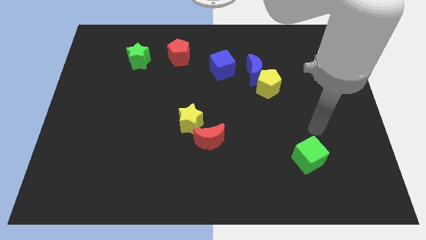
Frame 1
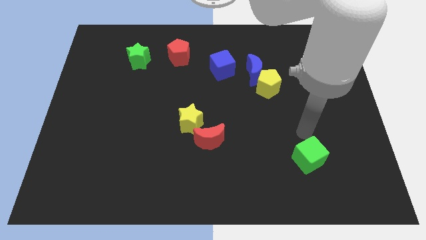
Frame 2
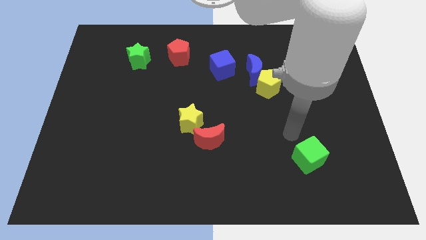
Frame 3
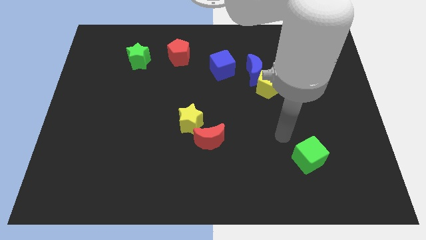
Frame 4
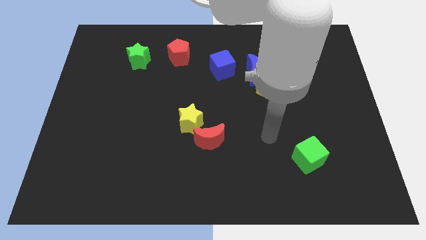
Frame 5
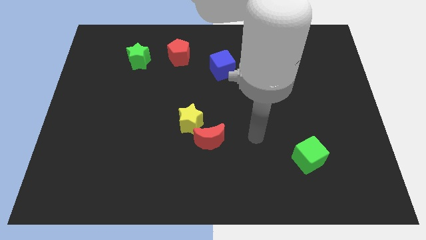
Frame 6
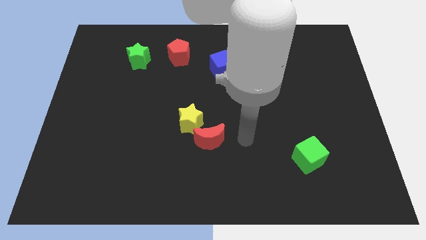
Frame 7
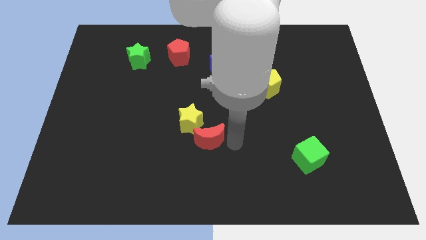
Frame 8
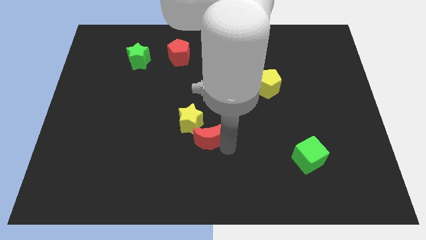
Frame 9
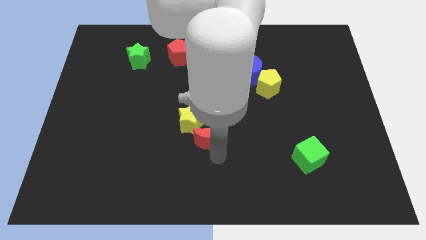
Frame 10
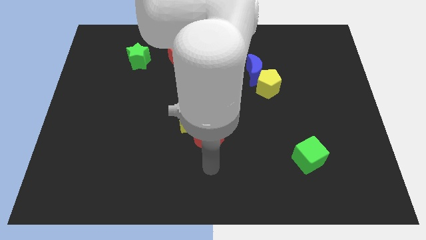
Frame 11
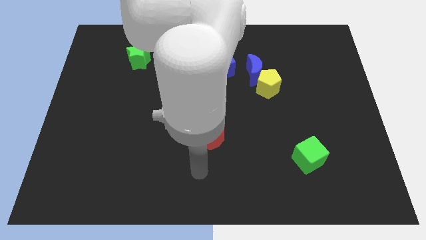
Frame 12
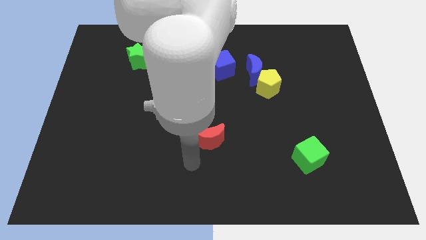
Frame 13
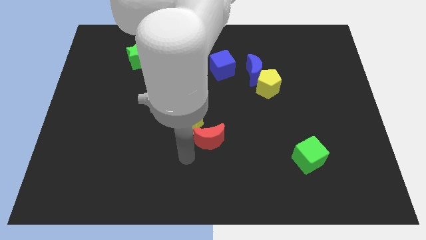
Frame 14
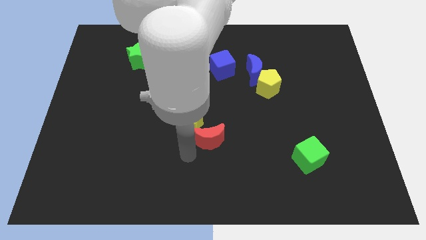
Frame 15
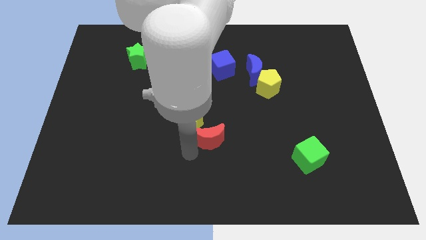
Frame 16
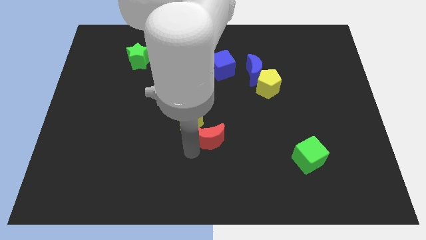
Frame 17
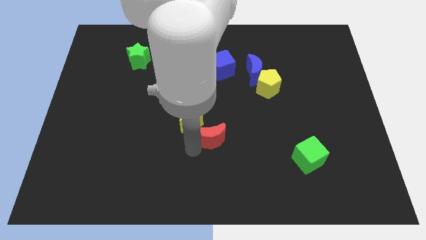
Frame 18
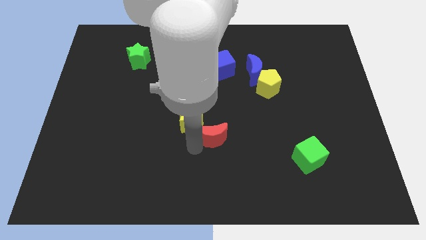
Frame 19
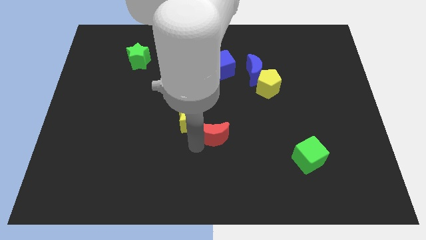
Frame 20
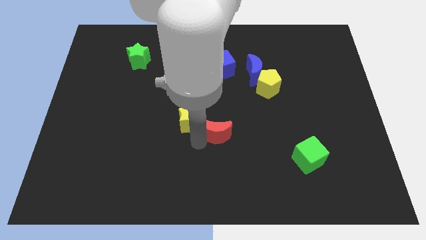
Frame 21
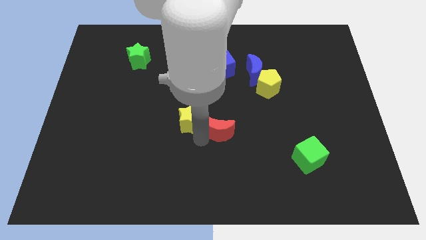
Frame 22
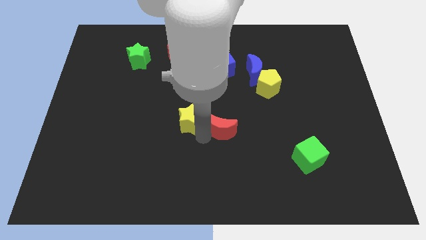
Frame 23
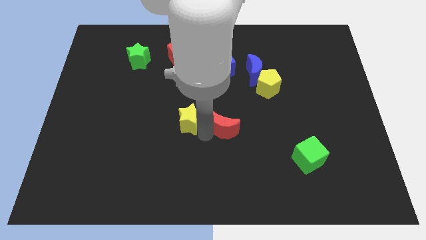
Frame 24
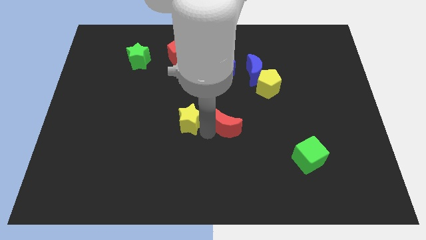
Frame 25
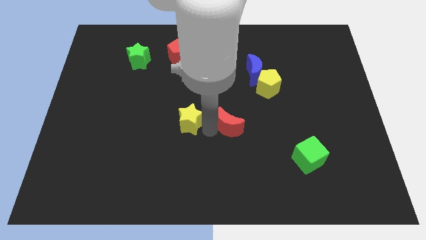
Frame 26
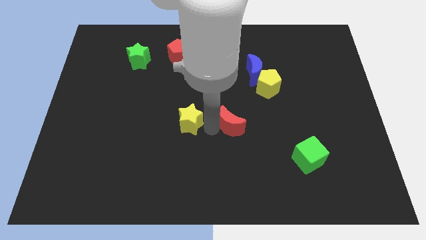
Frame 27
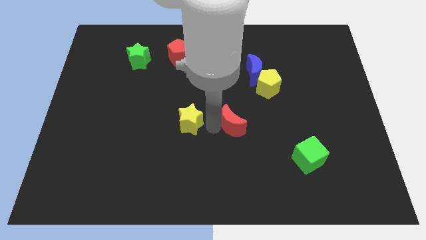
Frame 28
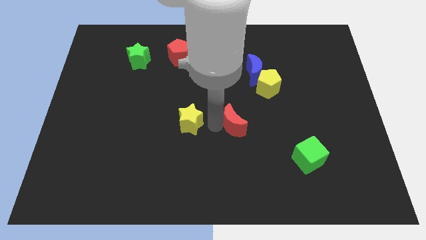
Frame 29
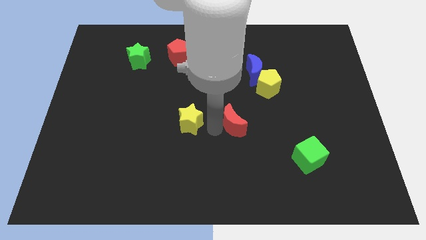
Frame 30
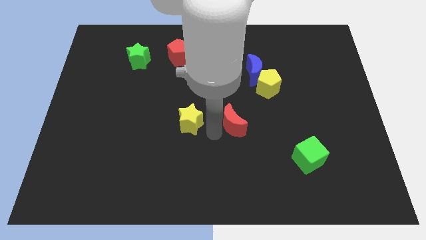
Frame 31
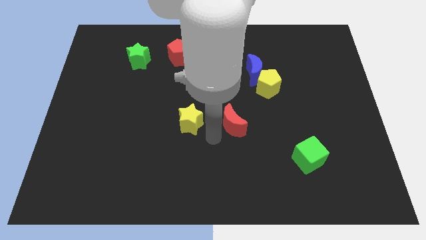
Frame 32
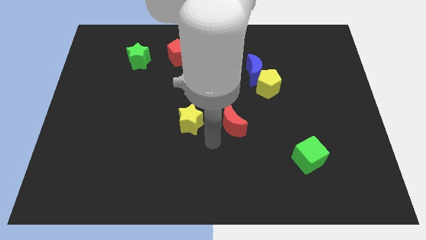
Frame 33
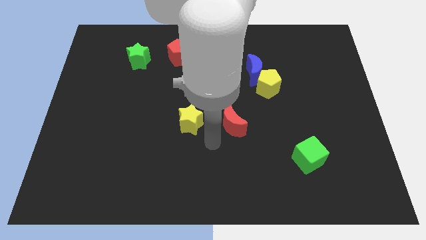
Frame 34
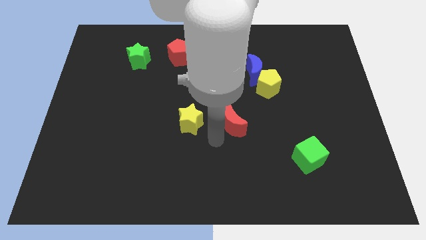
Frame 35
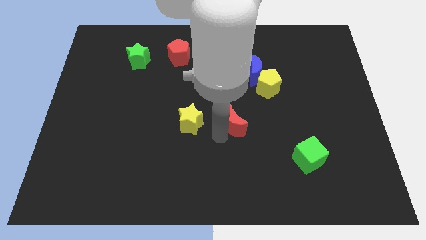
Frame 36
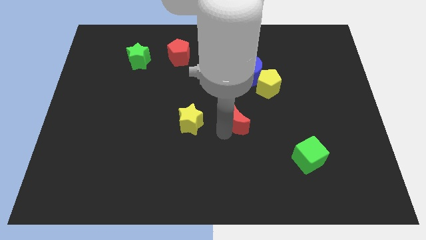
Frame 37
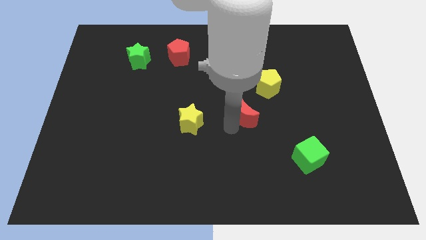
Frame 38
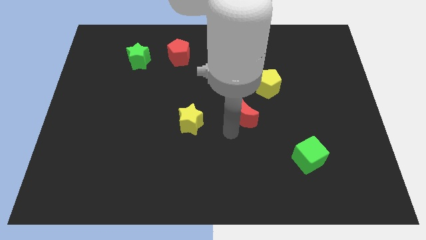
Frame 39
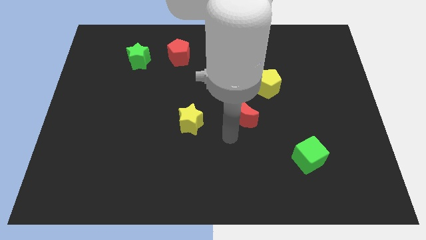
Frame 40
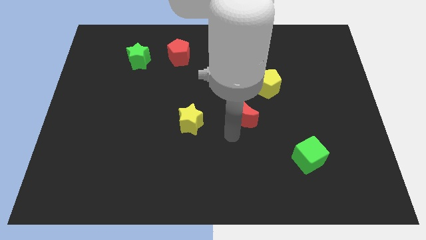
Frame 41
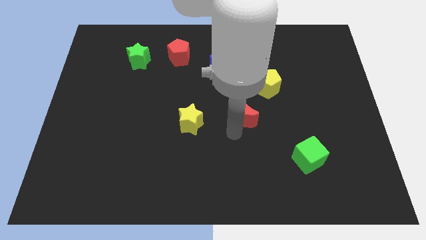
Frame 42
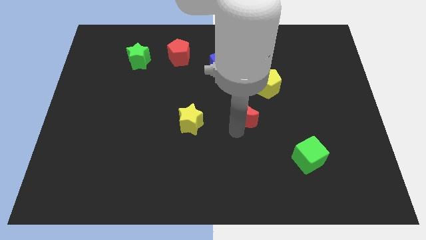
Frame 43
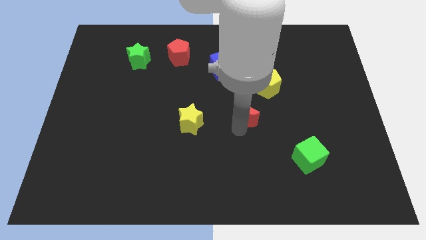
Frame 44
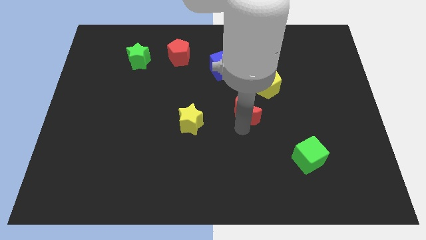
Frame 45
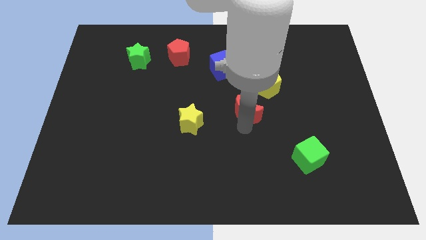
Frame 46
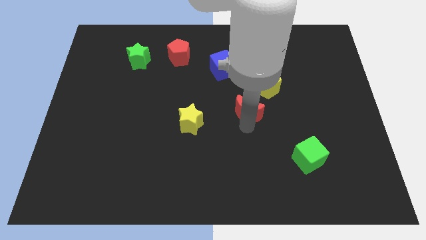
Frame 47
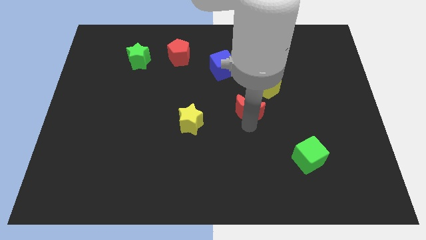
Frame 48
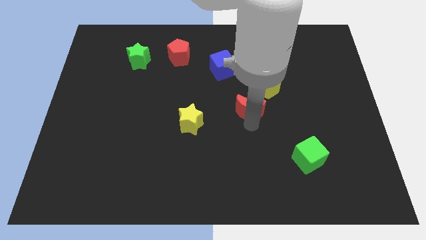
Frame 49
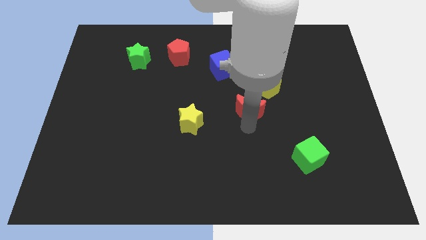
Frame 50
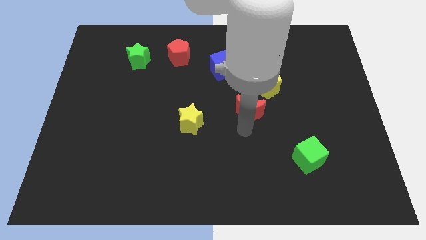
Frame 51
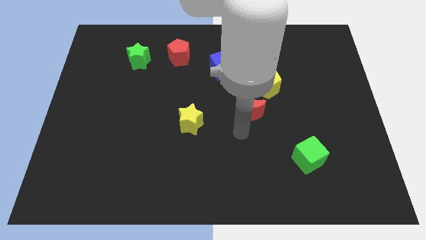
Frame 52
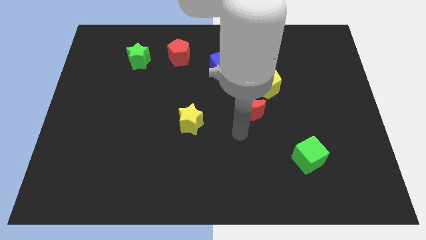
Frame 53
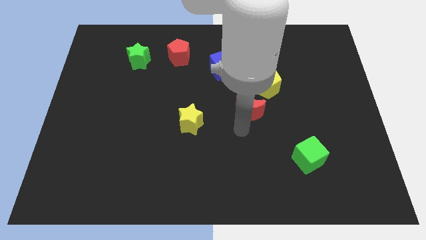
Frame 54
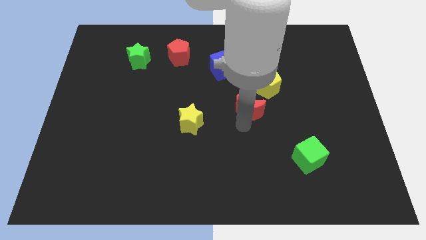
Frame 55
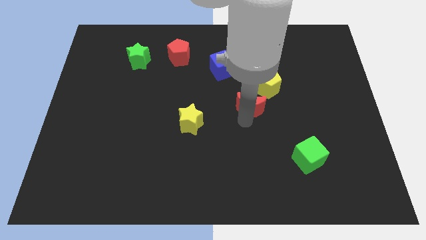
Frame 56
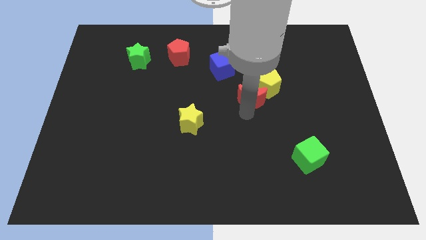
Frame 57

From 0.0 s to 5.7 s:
slide the red moon next to the yellow pentagon

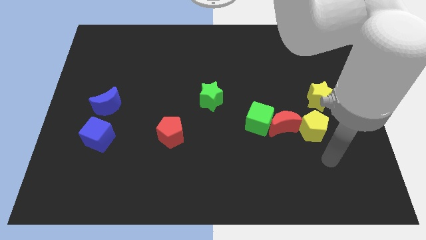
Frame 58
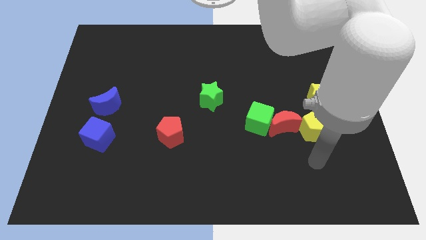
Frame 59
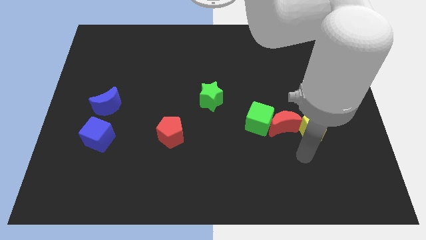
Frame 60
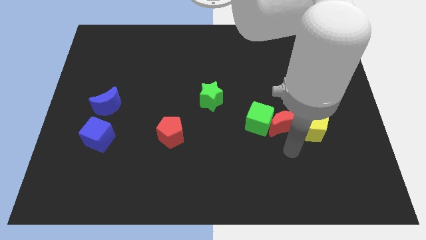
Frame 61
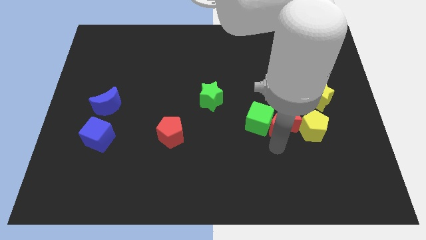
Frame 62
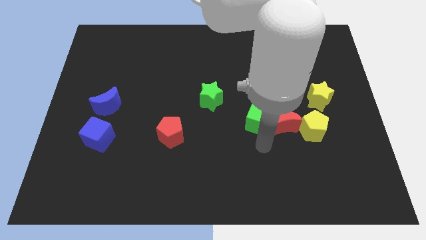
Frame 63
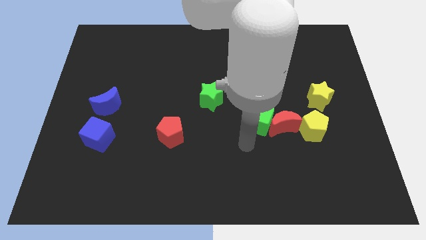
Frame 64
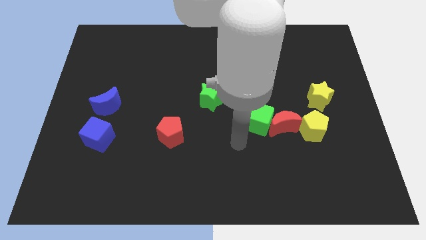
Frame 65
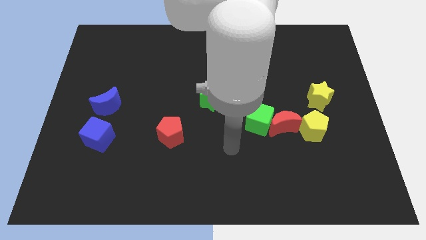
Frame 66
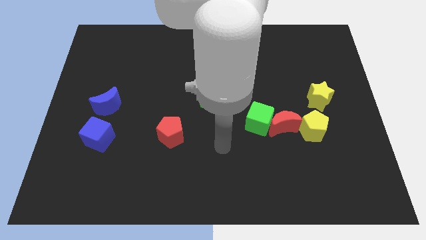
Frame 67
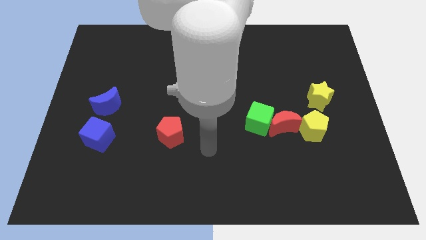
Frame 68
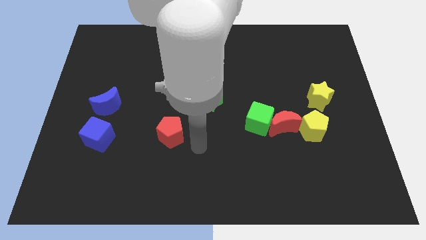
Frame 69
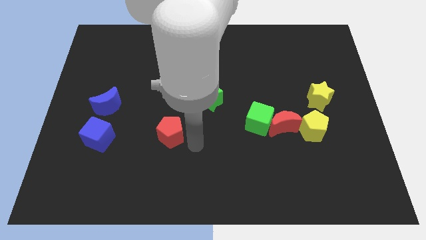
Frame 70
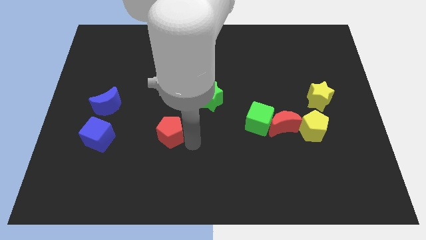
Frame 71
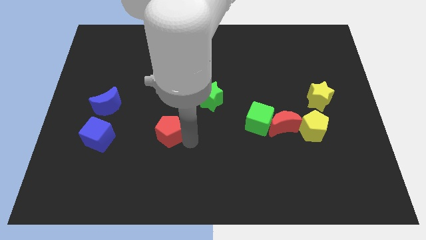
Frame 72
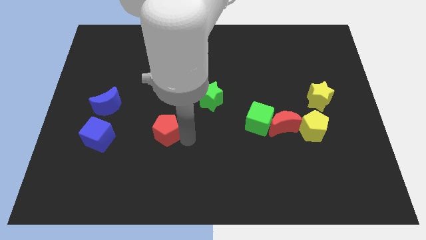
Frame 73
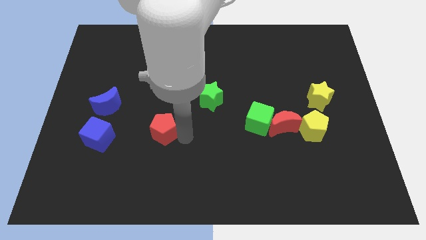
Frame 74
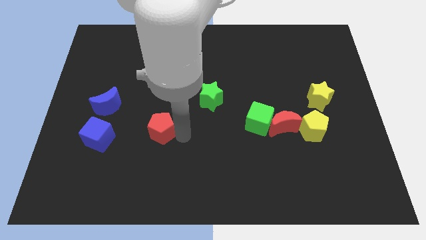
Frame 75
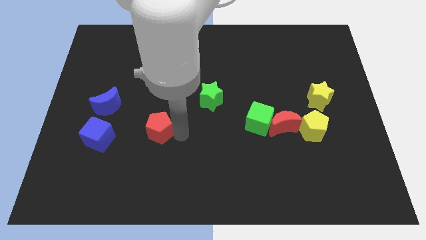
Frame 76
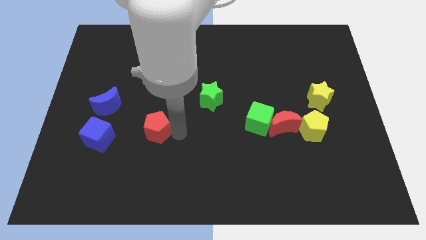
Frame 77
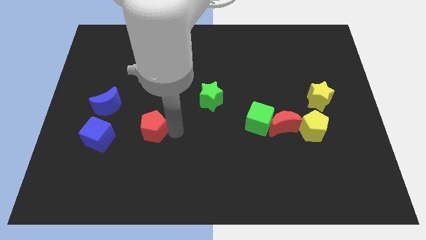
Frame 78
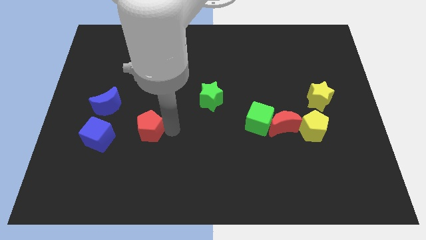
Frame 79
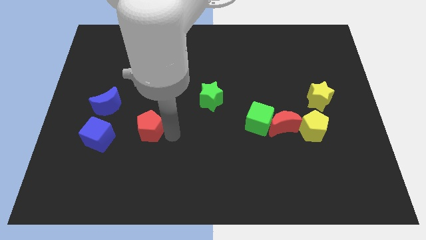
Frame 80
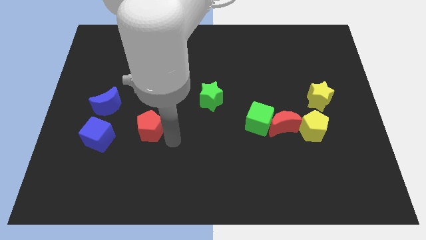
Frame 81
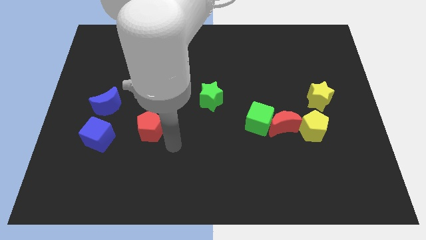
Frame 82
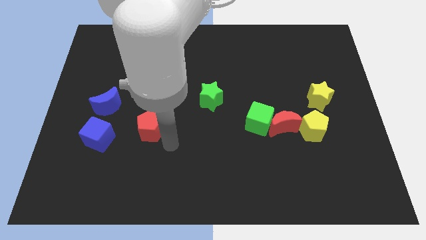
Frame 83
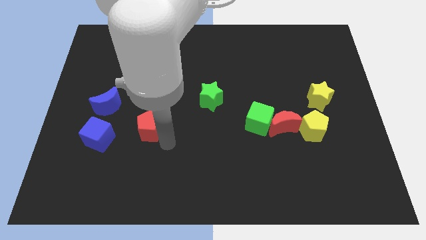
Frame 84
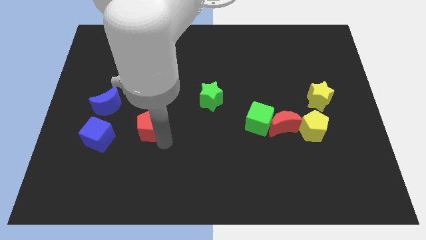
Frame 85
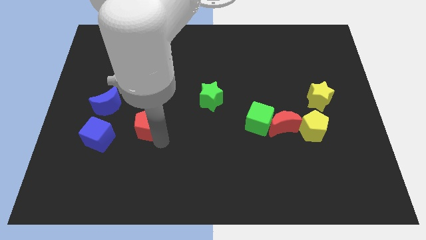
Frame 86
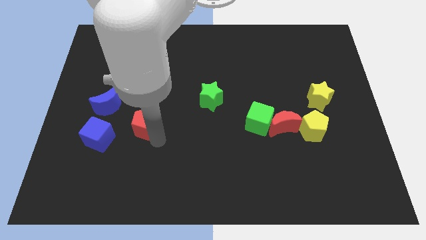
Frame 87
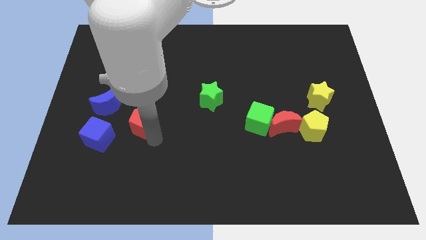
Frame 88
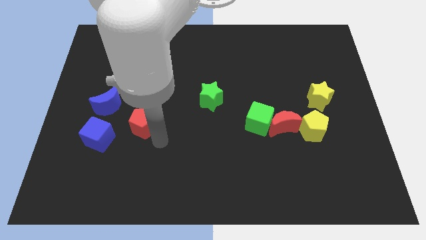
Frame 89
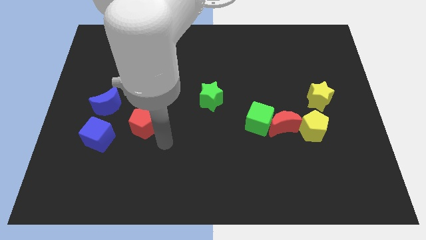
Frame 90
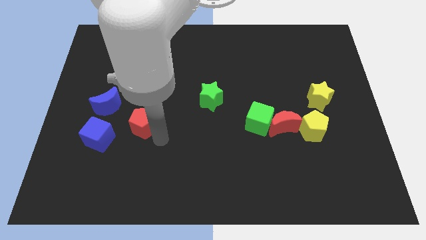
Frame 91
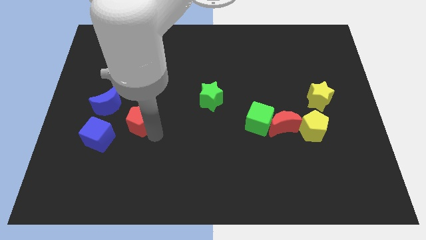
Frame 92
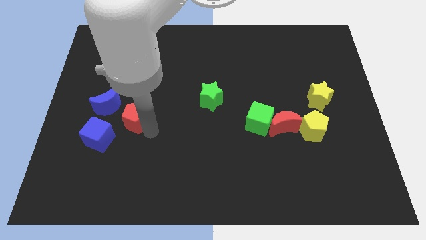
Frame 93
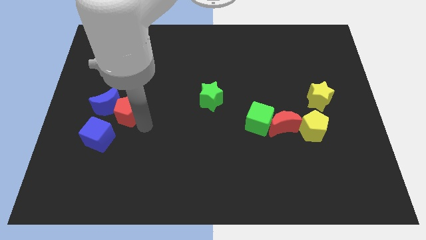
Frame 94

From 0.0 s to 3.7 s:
push the red pentagon close to the blue moon
